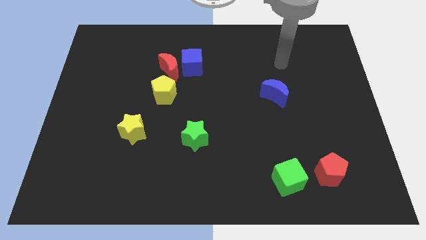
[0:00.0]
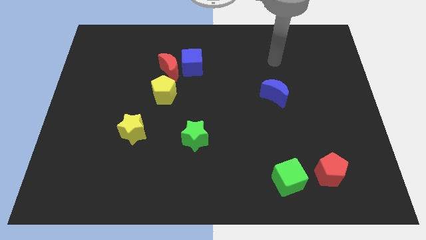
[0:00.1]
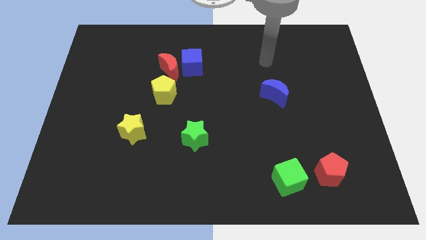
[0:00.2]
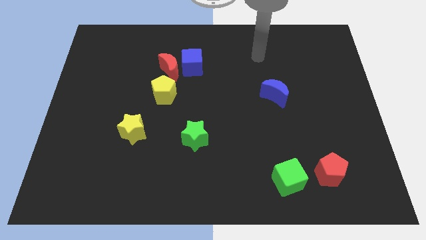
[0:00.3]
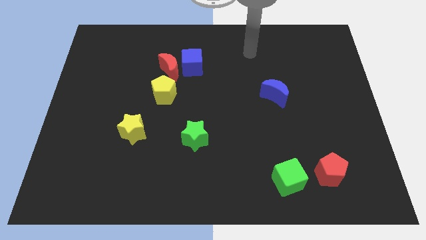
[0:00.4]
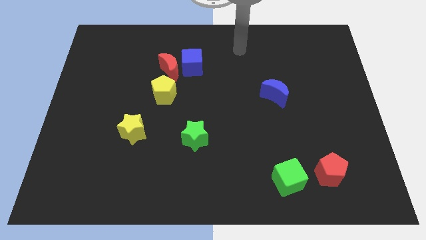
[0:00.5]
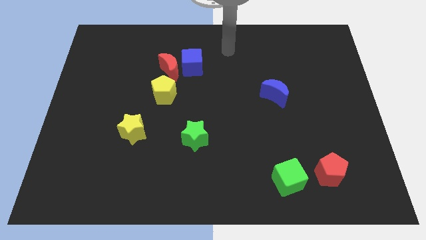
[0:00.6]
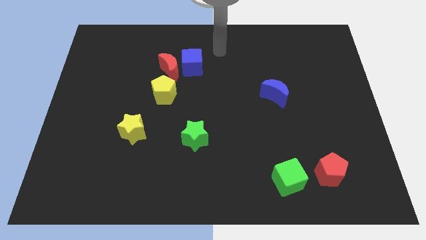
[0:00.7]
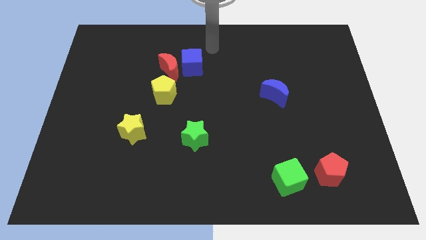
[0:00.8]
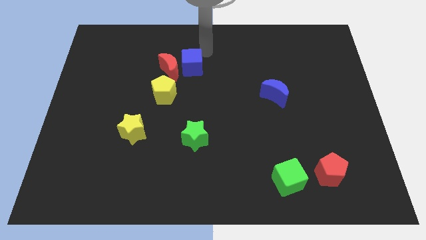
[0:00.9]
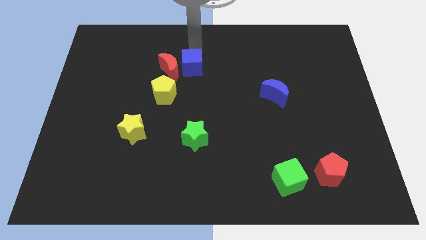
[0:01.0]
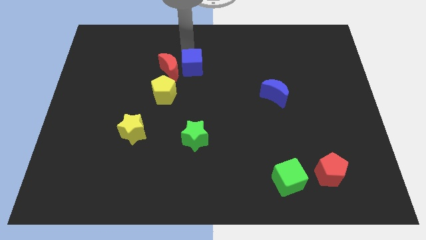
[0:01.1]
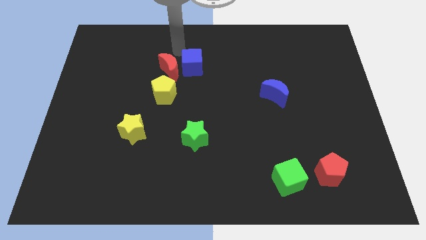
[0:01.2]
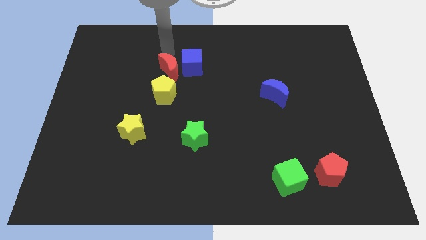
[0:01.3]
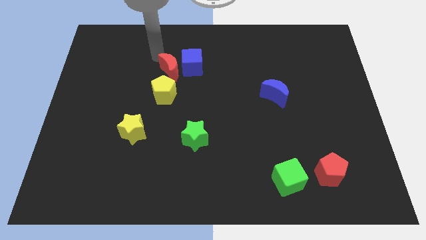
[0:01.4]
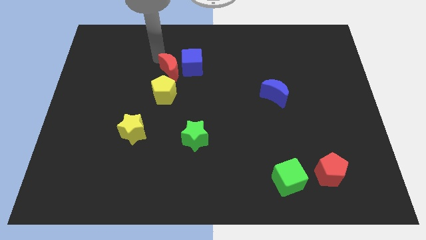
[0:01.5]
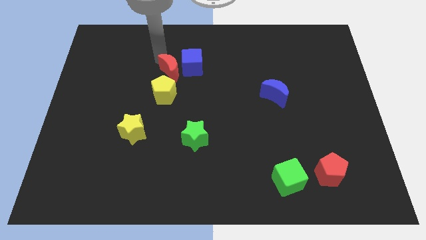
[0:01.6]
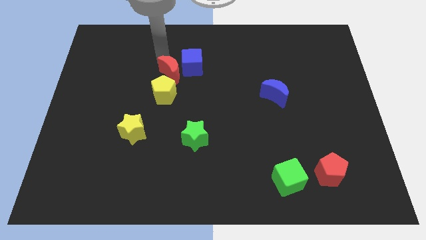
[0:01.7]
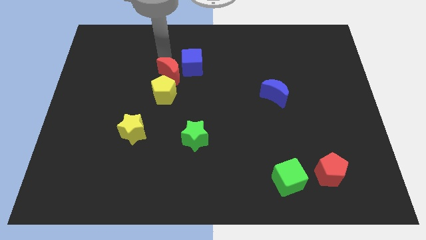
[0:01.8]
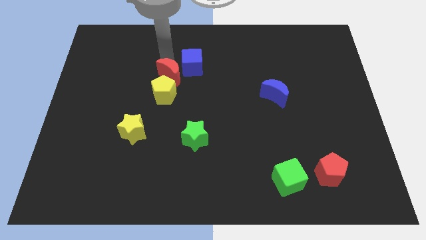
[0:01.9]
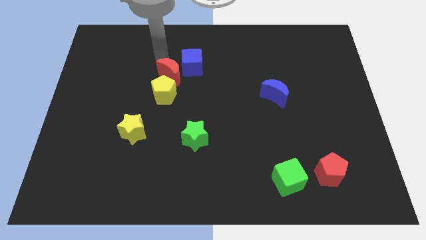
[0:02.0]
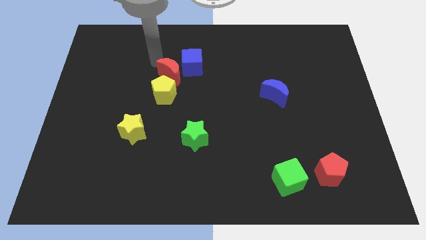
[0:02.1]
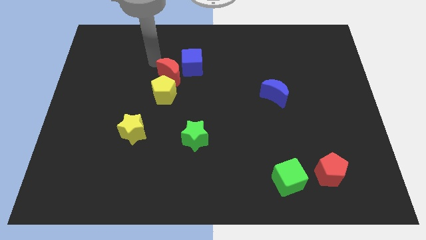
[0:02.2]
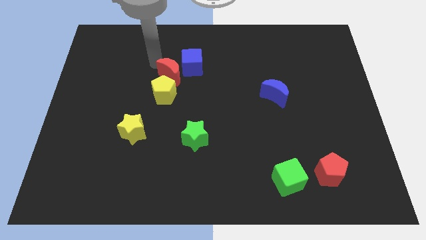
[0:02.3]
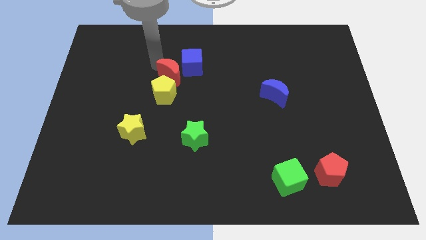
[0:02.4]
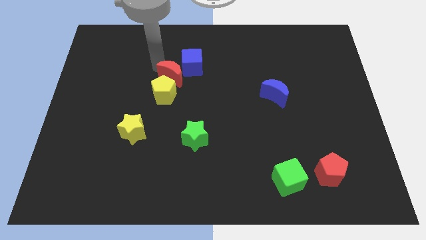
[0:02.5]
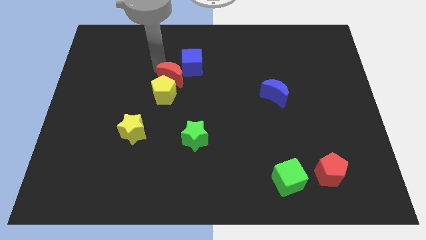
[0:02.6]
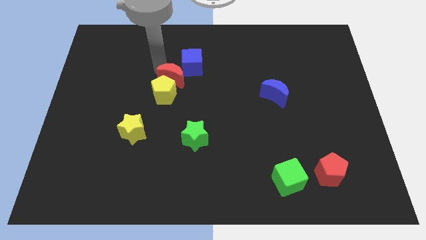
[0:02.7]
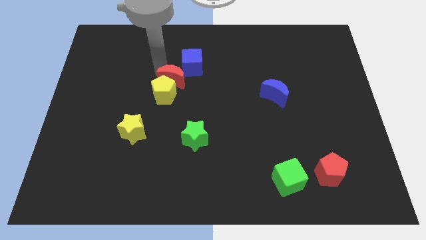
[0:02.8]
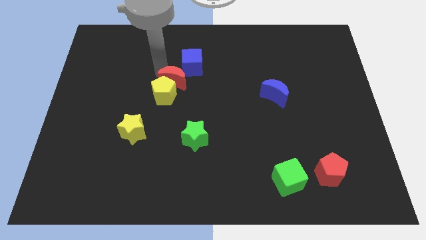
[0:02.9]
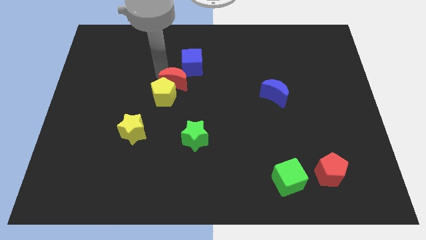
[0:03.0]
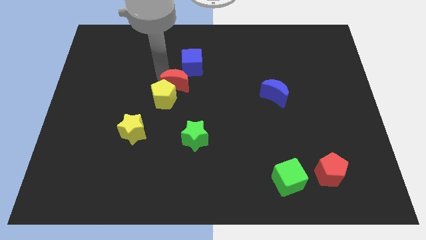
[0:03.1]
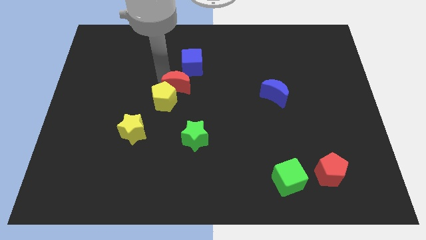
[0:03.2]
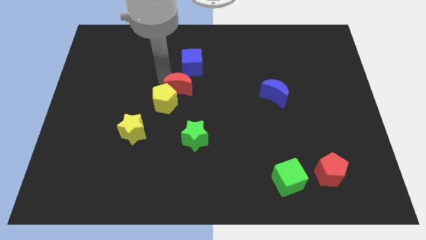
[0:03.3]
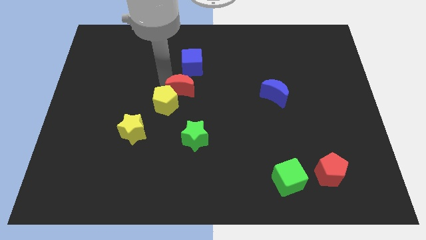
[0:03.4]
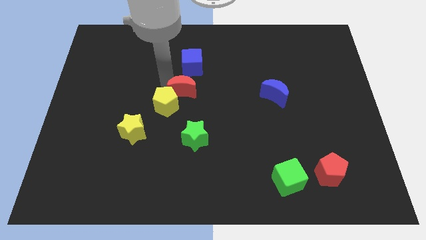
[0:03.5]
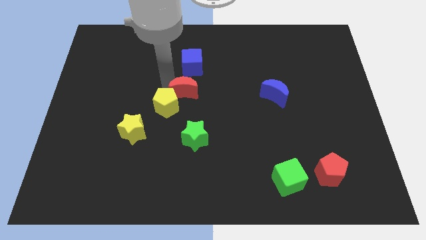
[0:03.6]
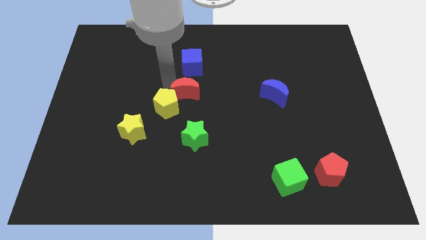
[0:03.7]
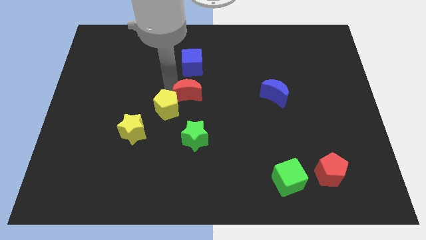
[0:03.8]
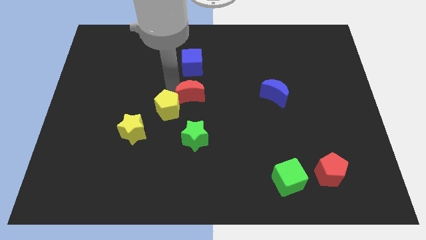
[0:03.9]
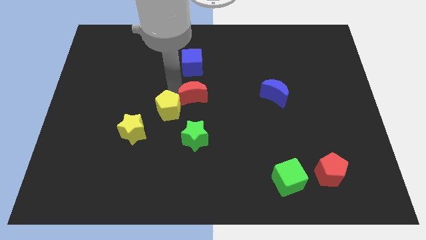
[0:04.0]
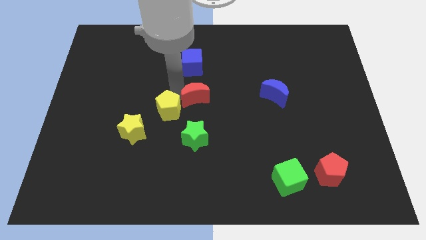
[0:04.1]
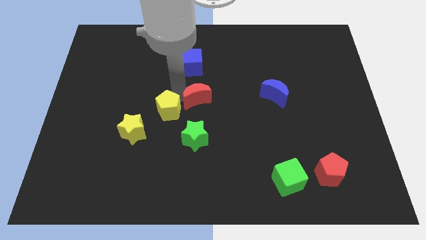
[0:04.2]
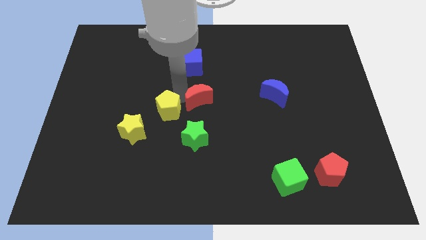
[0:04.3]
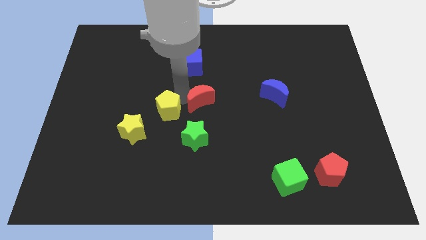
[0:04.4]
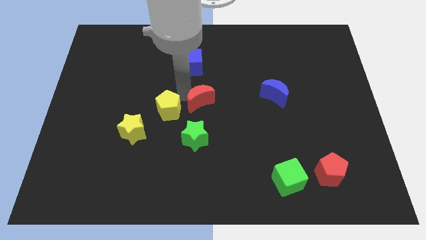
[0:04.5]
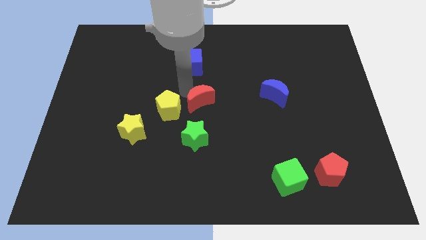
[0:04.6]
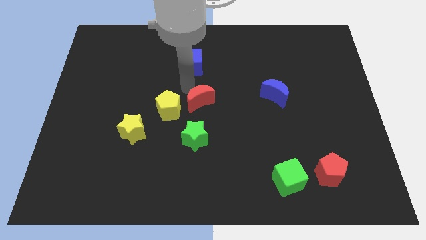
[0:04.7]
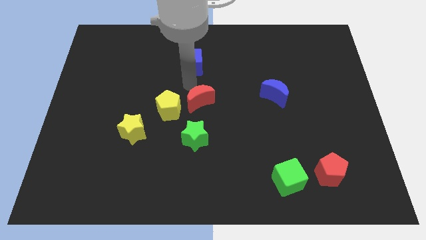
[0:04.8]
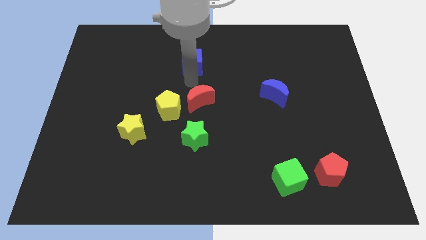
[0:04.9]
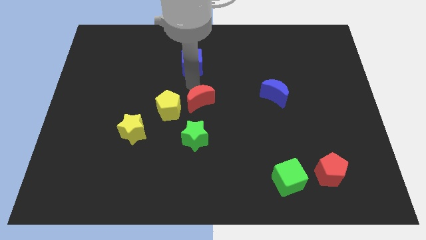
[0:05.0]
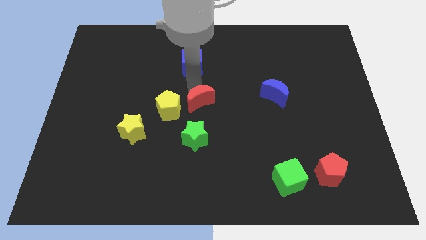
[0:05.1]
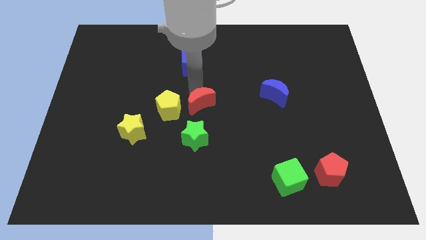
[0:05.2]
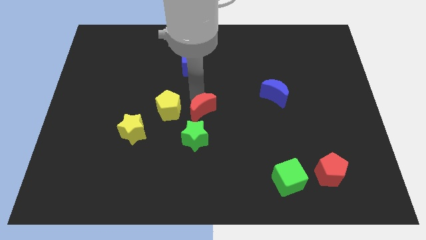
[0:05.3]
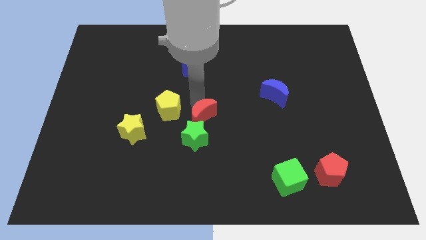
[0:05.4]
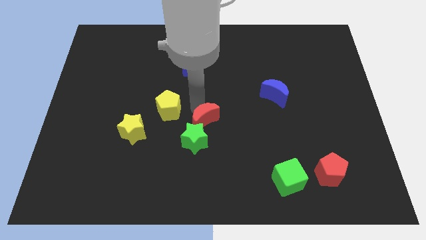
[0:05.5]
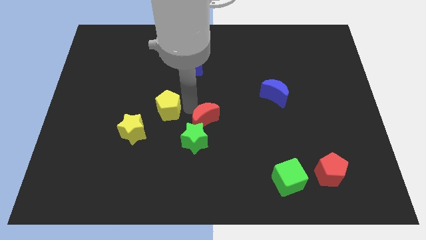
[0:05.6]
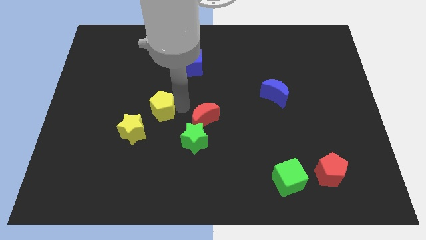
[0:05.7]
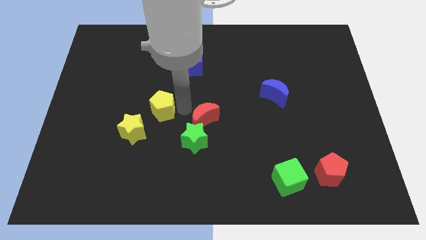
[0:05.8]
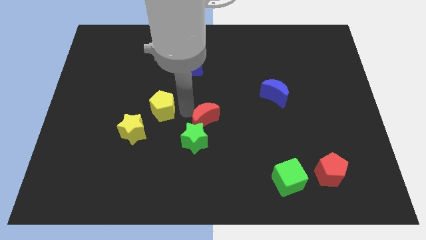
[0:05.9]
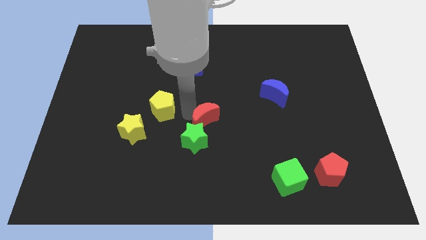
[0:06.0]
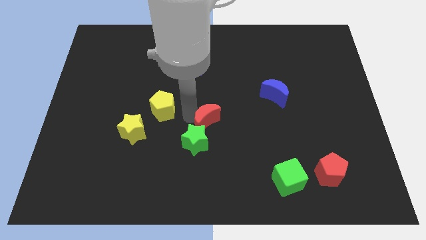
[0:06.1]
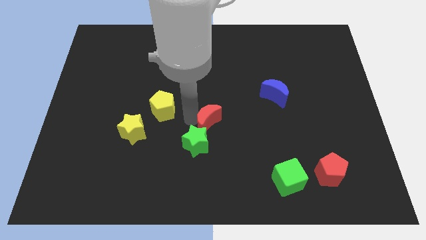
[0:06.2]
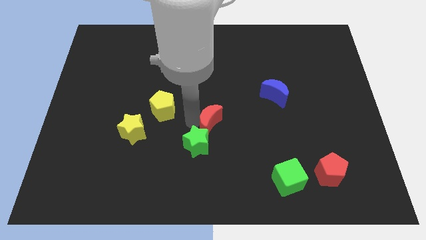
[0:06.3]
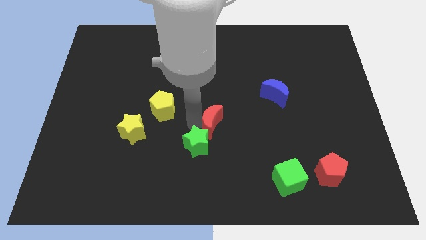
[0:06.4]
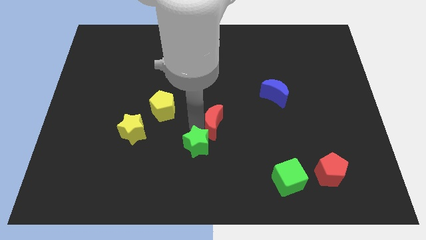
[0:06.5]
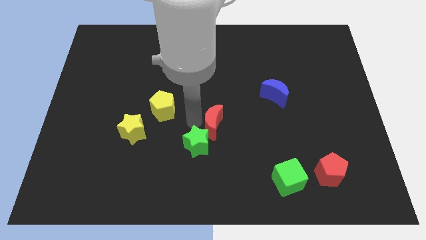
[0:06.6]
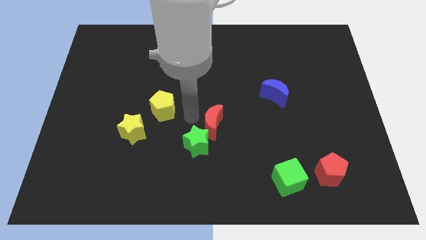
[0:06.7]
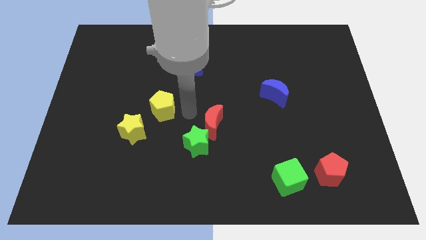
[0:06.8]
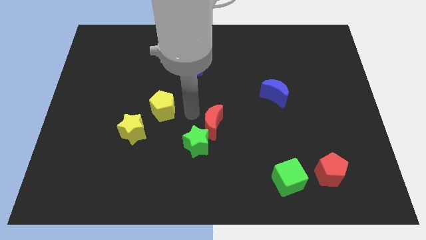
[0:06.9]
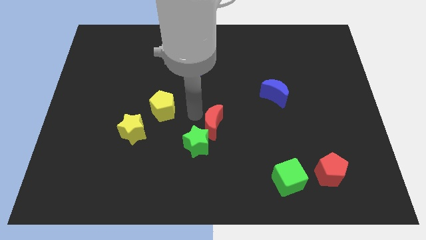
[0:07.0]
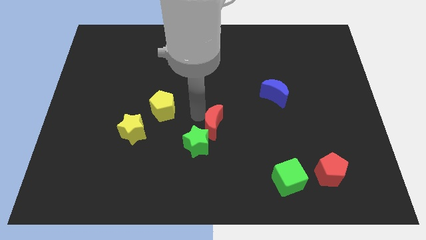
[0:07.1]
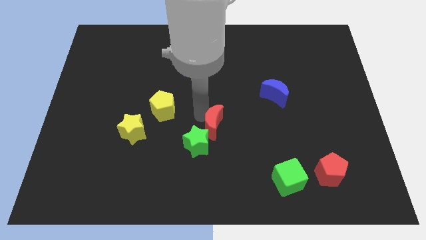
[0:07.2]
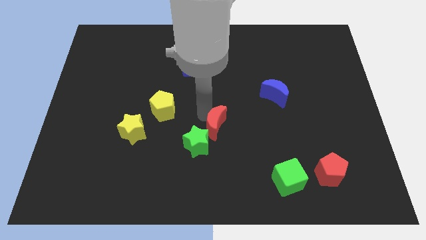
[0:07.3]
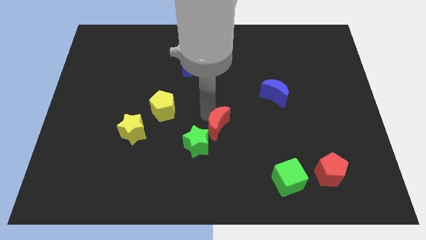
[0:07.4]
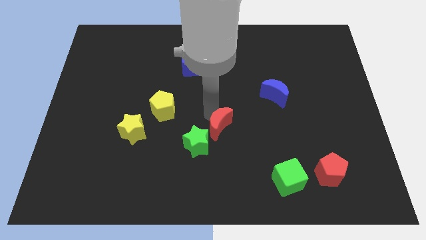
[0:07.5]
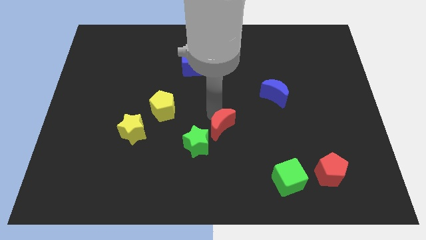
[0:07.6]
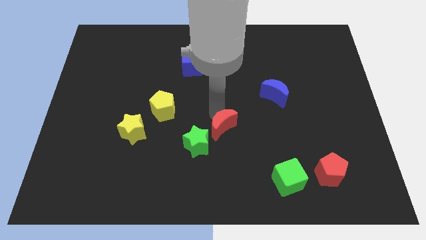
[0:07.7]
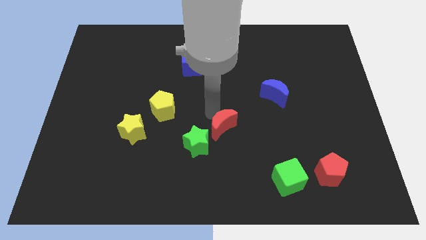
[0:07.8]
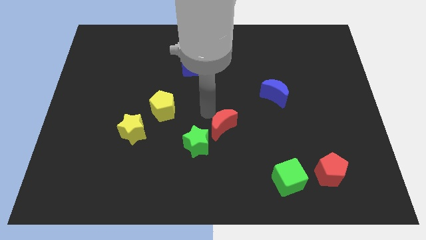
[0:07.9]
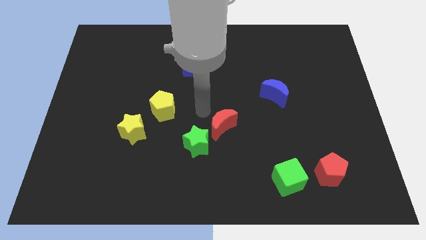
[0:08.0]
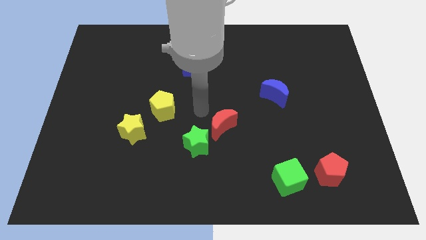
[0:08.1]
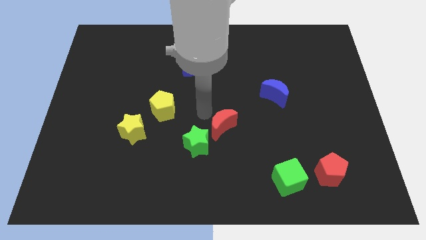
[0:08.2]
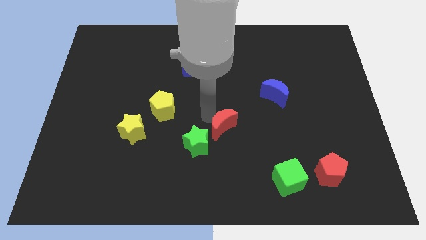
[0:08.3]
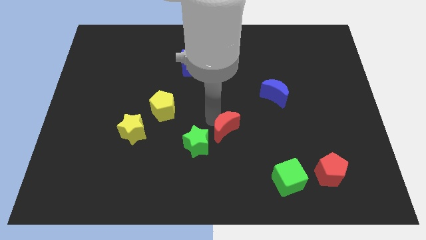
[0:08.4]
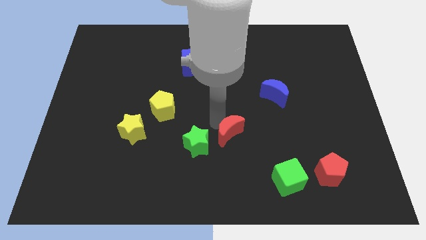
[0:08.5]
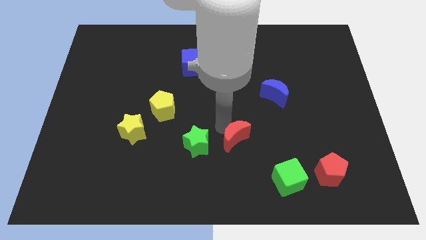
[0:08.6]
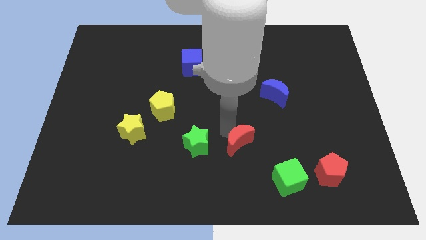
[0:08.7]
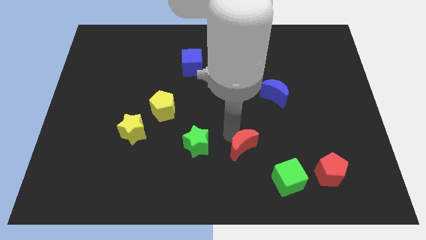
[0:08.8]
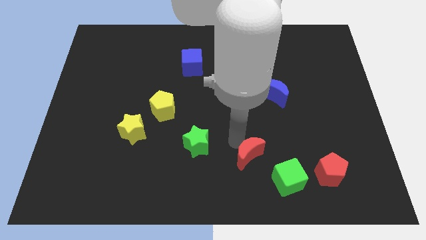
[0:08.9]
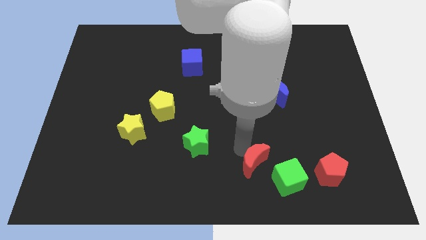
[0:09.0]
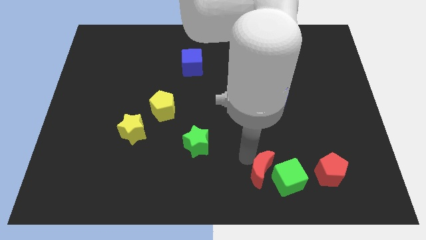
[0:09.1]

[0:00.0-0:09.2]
slide the red moon close to the green cube
